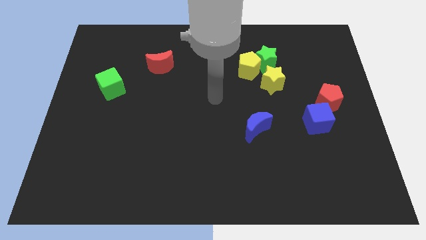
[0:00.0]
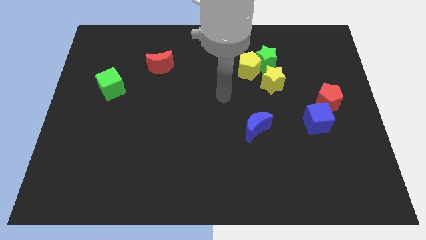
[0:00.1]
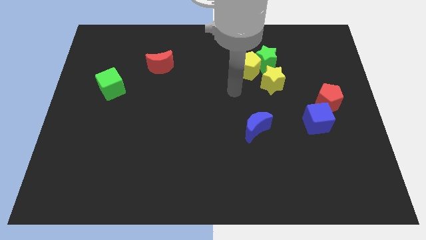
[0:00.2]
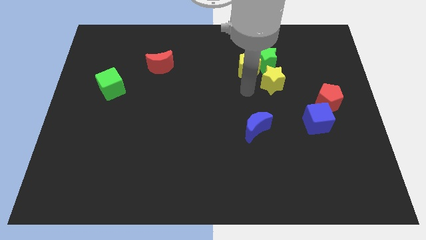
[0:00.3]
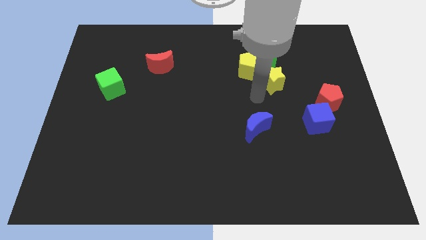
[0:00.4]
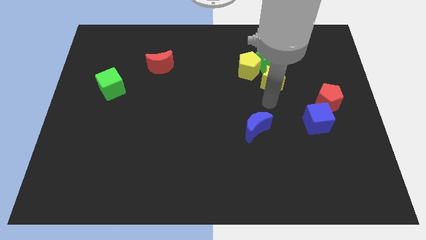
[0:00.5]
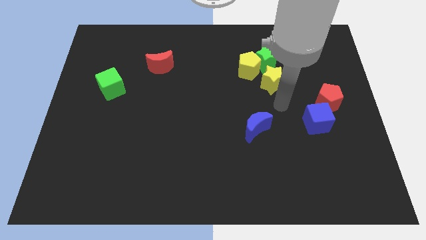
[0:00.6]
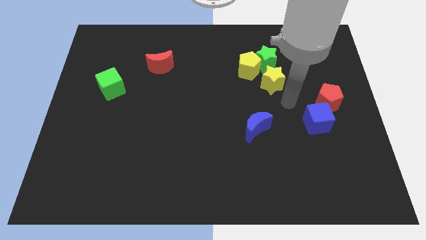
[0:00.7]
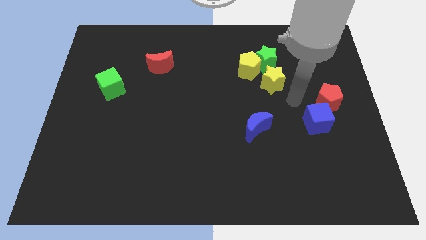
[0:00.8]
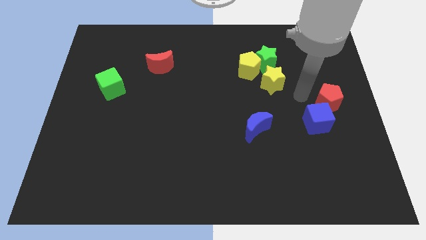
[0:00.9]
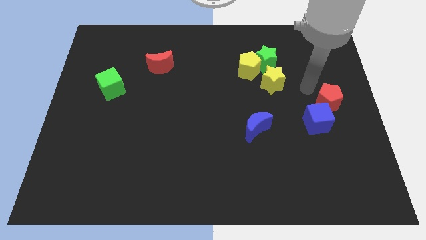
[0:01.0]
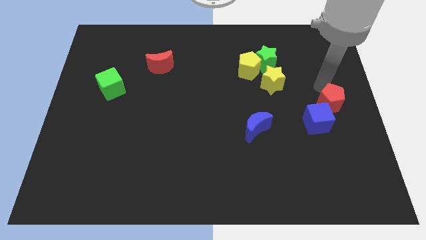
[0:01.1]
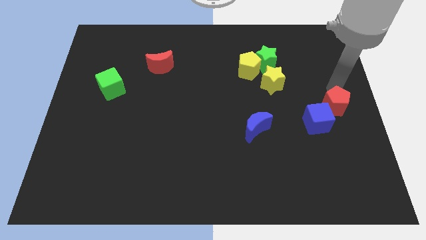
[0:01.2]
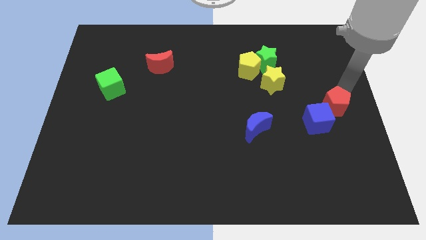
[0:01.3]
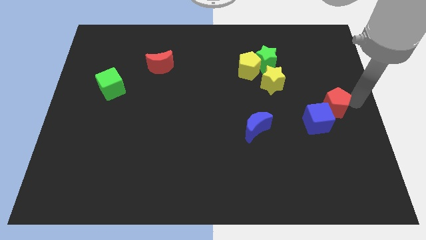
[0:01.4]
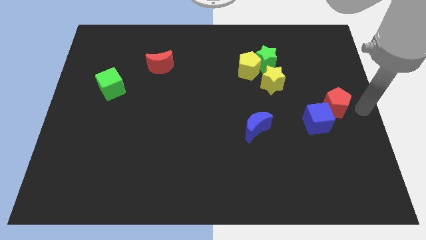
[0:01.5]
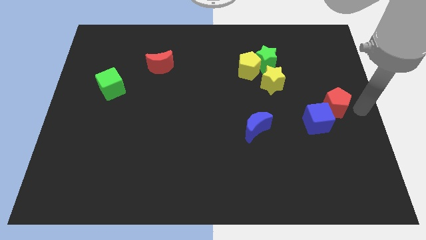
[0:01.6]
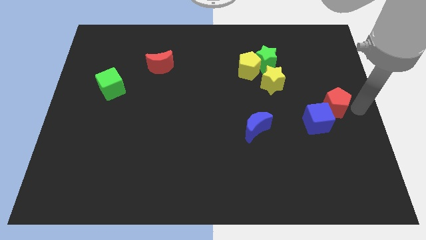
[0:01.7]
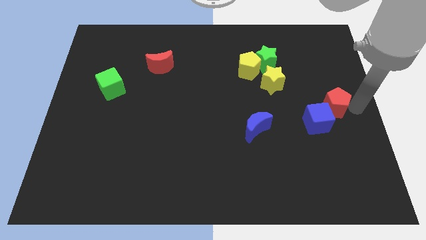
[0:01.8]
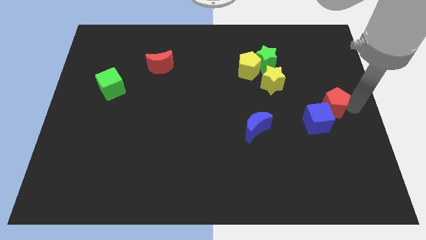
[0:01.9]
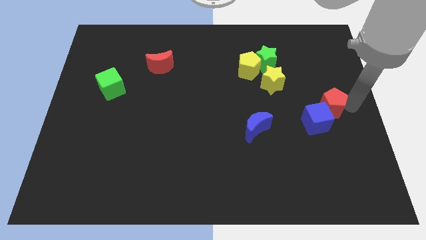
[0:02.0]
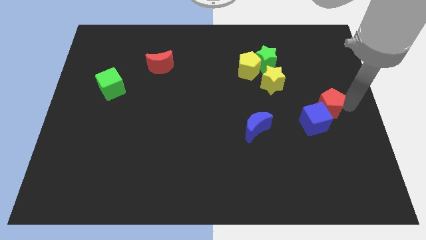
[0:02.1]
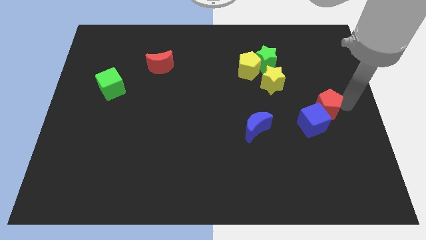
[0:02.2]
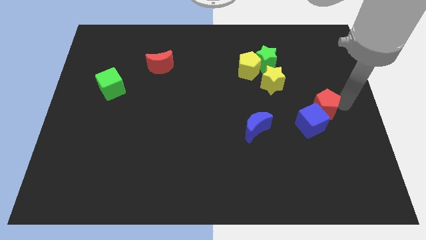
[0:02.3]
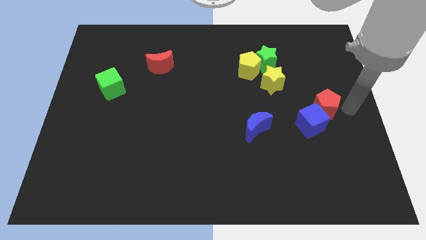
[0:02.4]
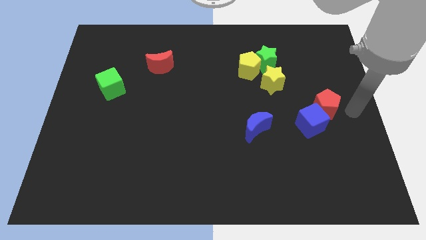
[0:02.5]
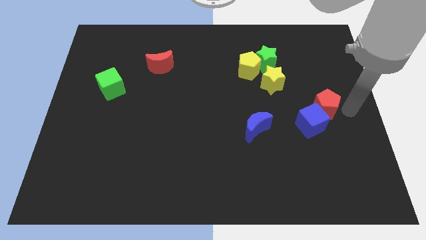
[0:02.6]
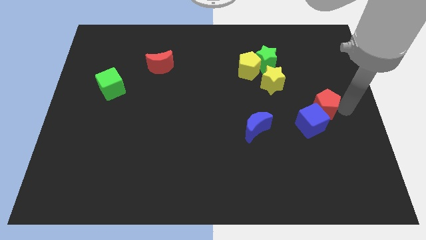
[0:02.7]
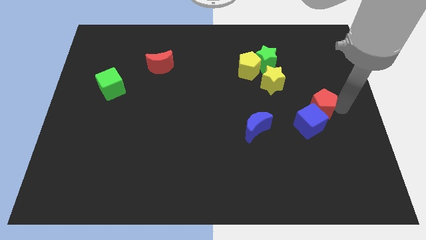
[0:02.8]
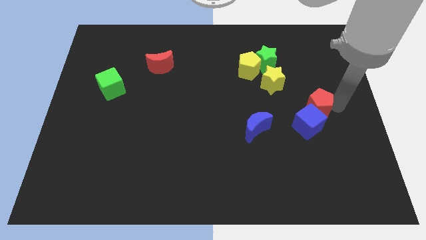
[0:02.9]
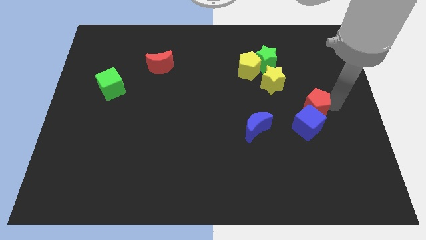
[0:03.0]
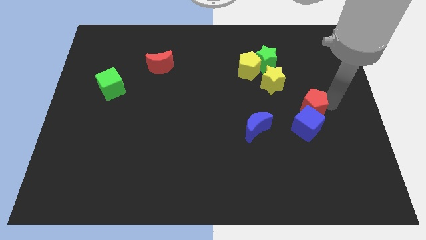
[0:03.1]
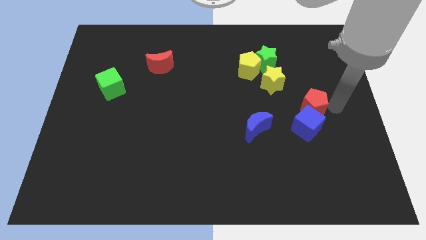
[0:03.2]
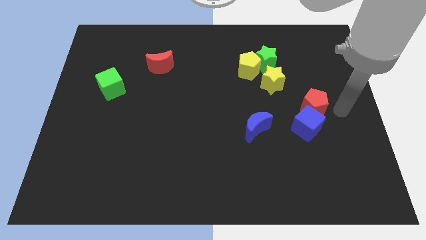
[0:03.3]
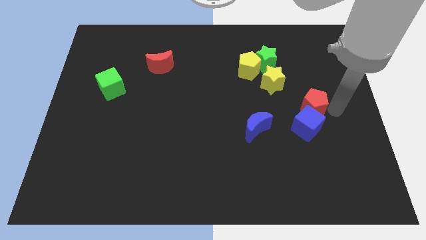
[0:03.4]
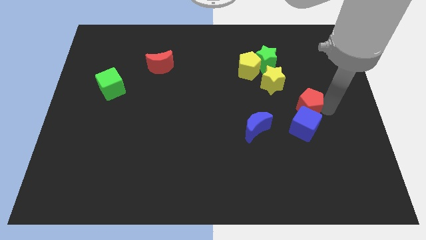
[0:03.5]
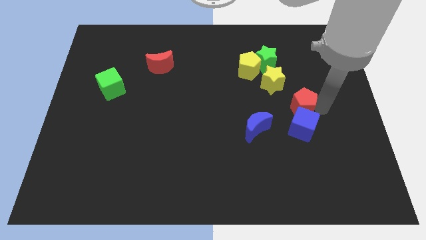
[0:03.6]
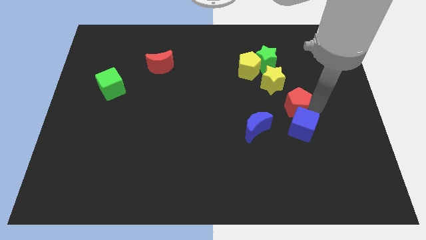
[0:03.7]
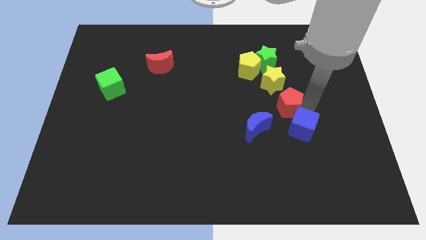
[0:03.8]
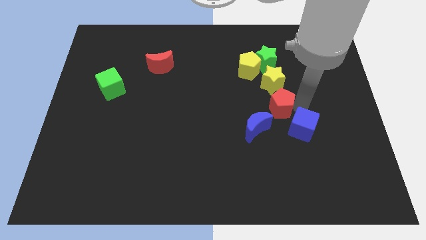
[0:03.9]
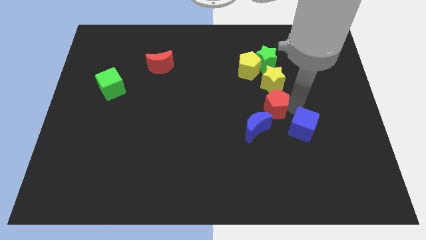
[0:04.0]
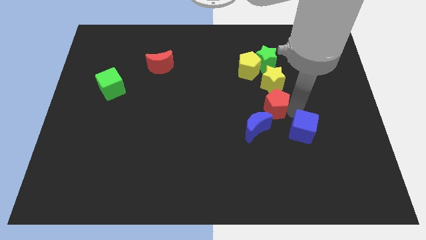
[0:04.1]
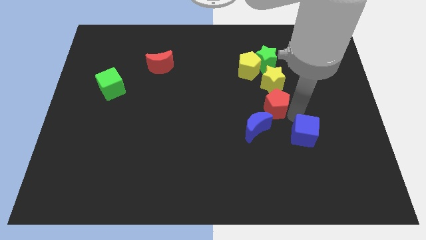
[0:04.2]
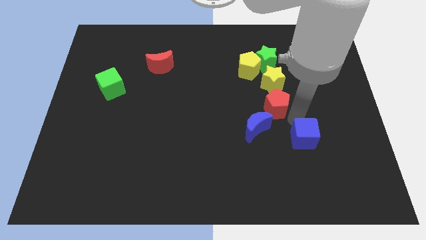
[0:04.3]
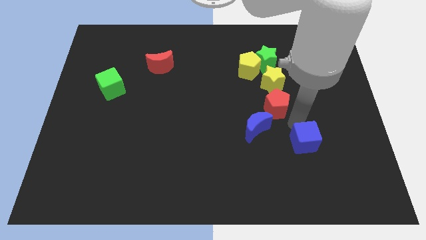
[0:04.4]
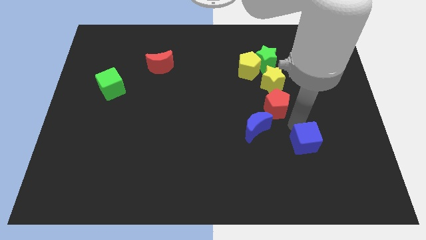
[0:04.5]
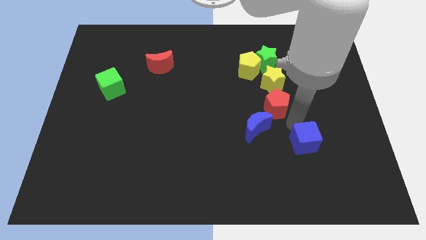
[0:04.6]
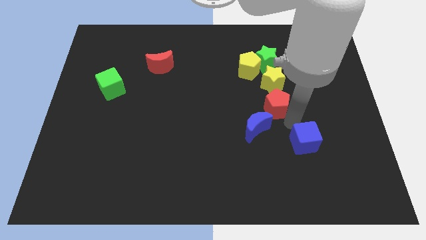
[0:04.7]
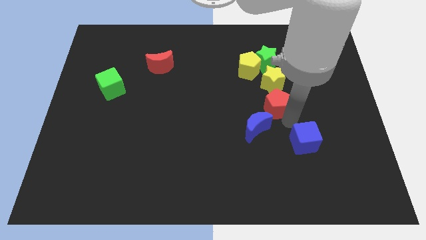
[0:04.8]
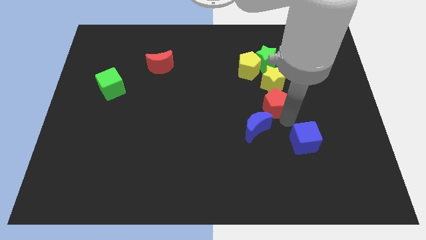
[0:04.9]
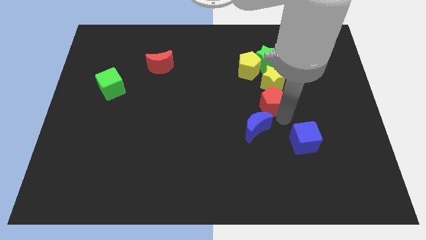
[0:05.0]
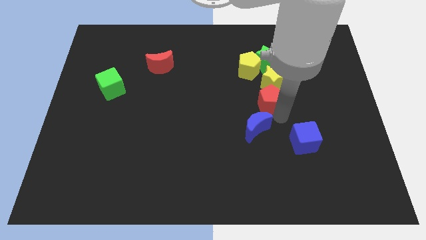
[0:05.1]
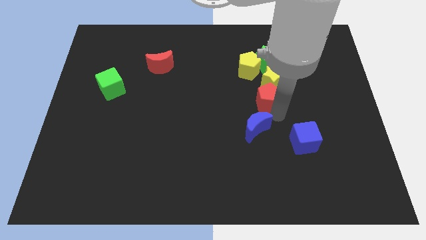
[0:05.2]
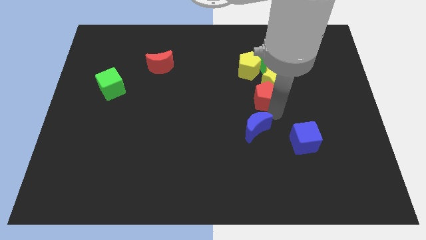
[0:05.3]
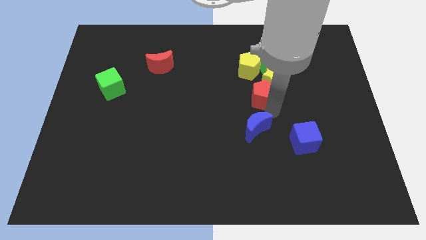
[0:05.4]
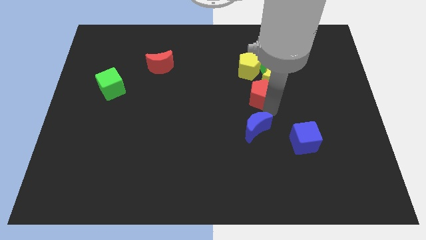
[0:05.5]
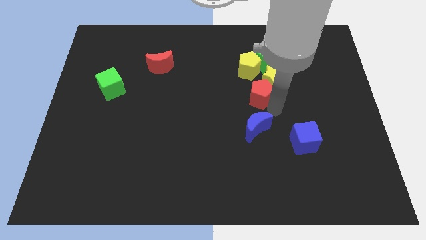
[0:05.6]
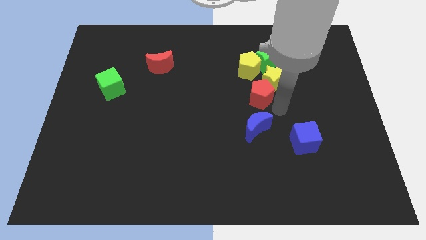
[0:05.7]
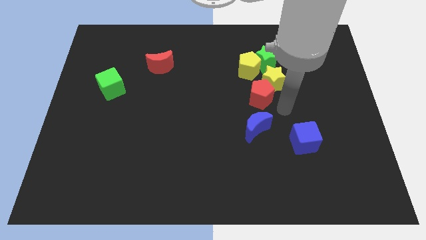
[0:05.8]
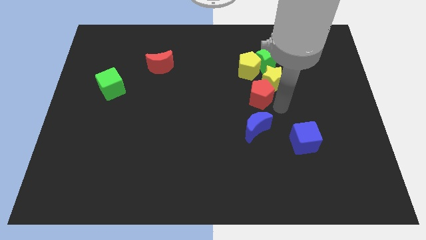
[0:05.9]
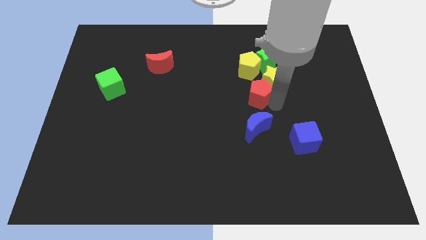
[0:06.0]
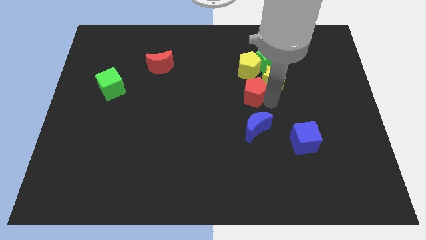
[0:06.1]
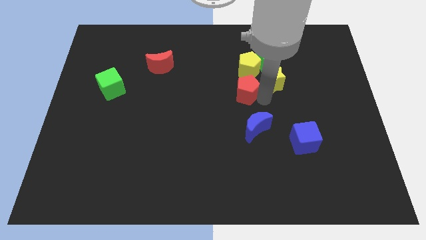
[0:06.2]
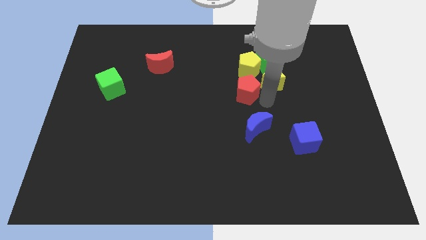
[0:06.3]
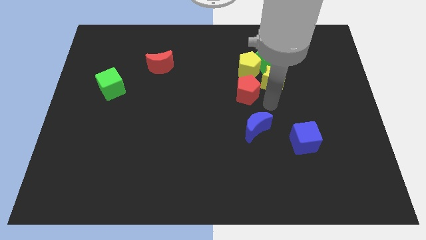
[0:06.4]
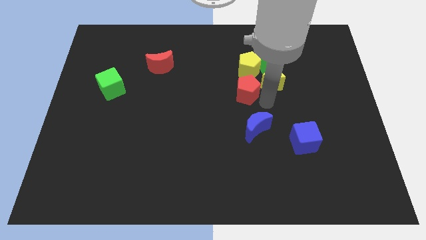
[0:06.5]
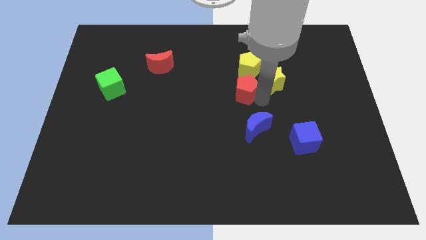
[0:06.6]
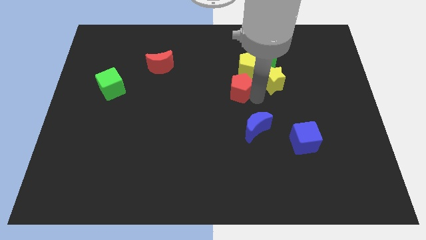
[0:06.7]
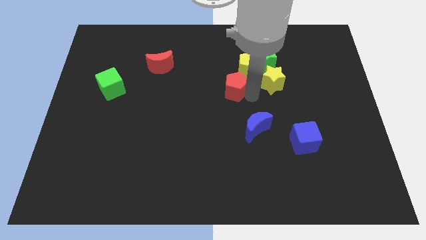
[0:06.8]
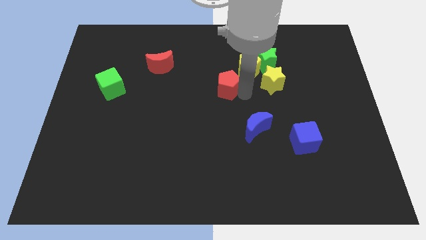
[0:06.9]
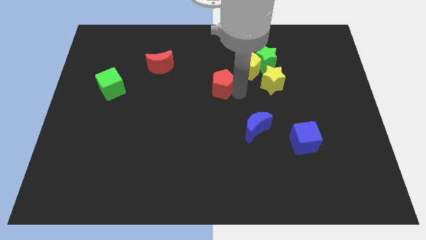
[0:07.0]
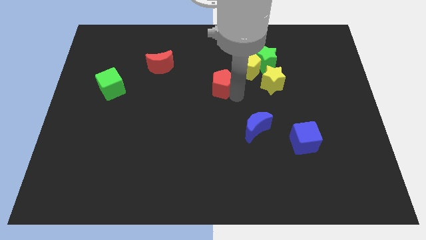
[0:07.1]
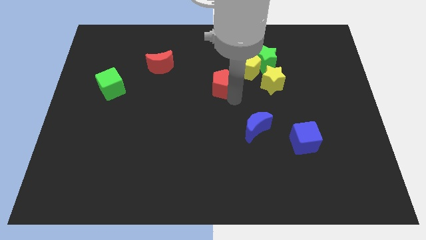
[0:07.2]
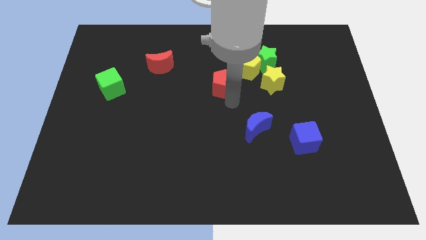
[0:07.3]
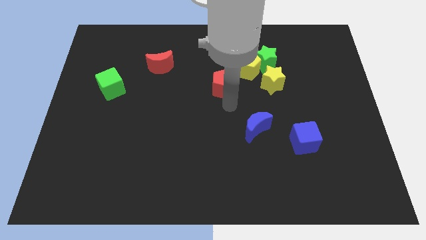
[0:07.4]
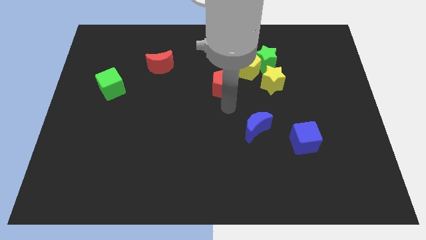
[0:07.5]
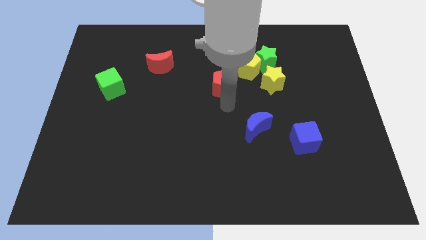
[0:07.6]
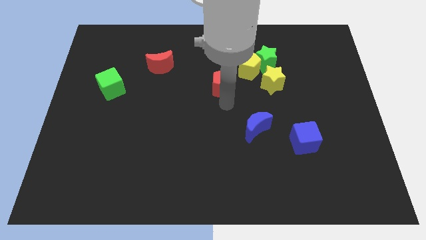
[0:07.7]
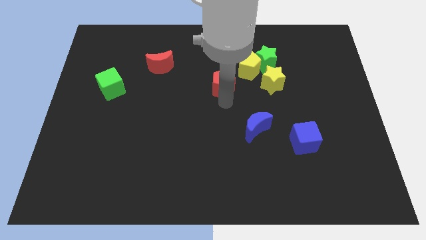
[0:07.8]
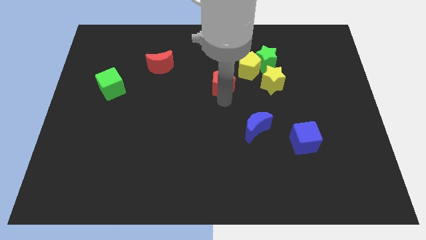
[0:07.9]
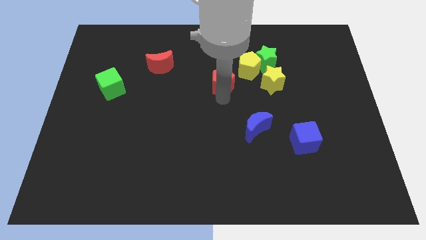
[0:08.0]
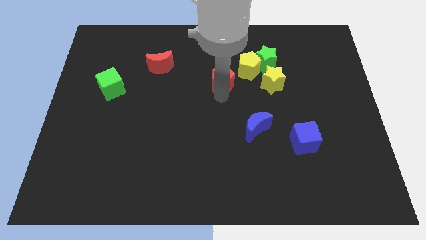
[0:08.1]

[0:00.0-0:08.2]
move the red pentagon to the left of the yellow pentagon
